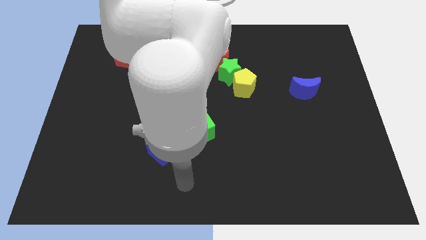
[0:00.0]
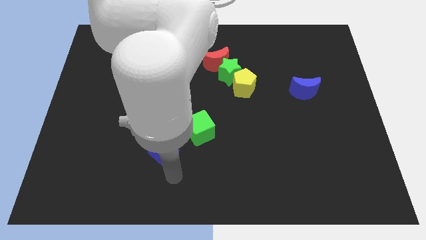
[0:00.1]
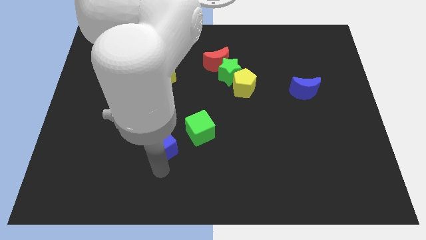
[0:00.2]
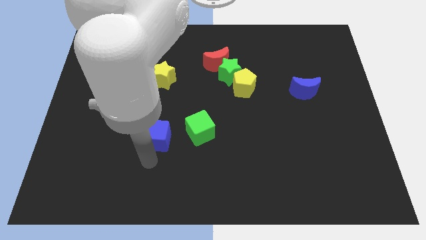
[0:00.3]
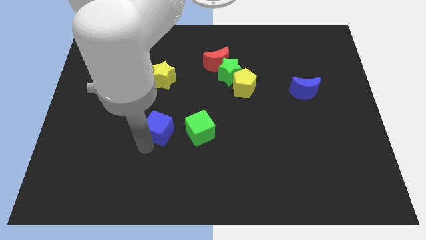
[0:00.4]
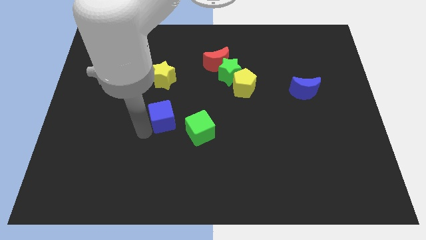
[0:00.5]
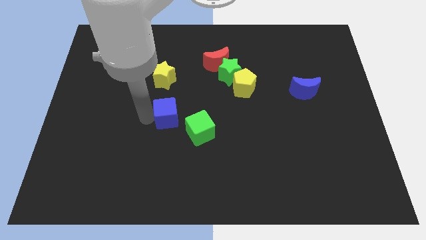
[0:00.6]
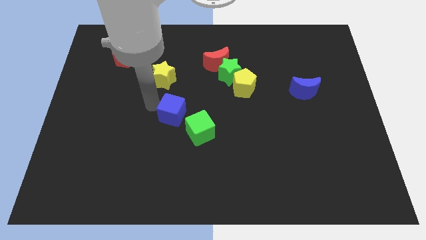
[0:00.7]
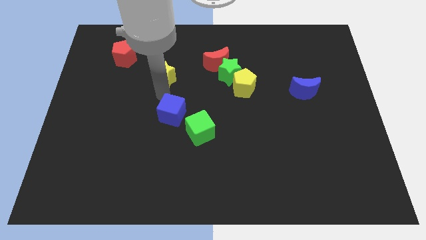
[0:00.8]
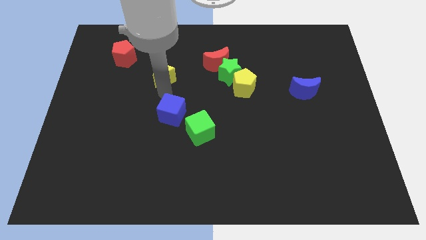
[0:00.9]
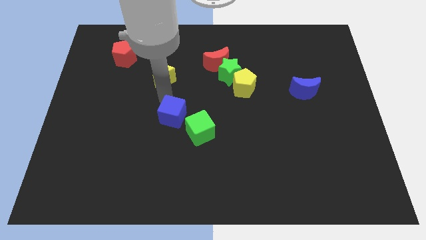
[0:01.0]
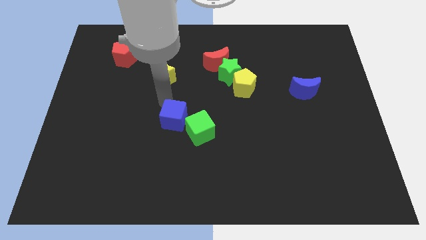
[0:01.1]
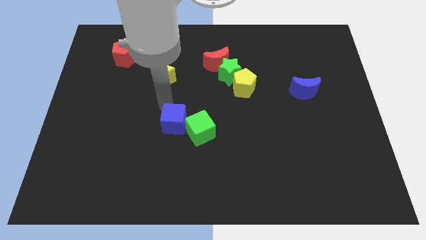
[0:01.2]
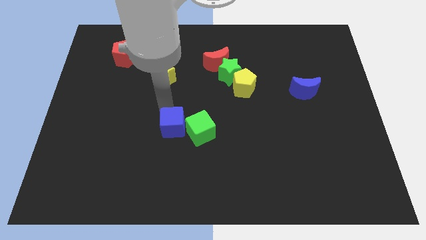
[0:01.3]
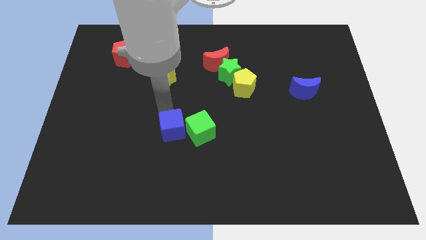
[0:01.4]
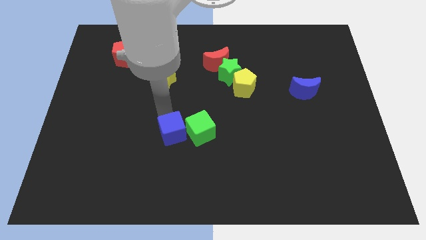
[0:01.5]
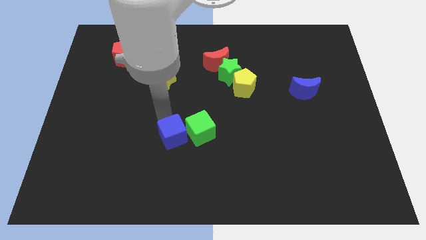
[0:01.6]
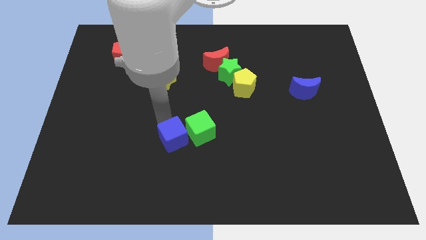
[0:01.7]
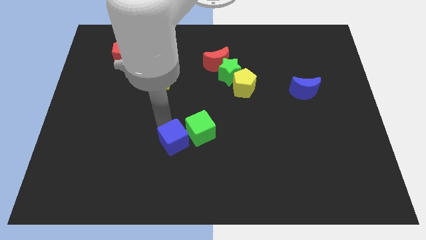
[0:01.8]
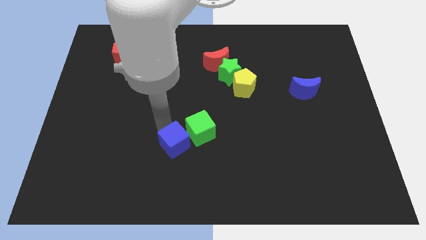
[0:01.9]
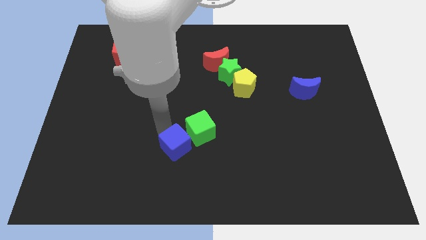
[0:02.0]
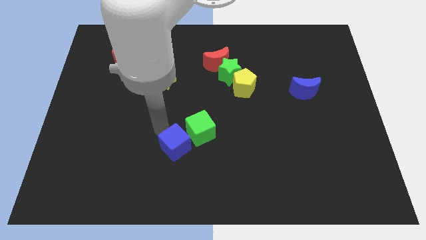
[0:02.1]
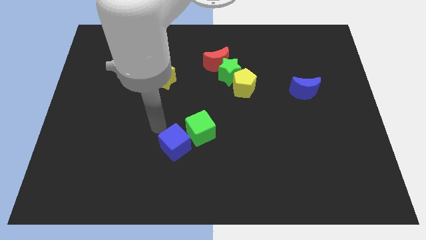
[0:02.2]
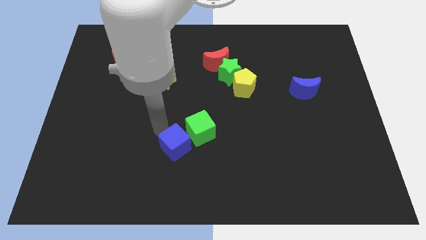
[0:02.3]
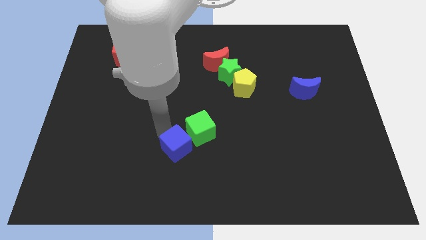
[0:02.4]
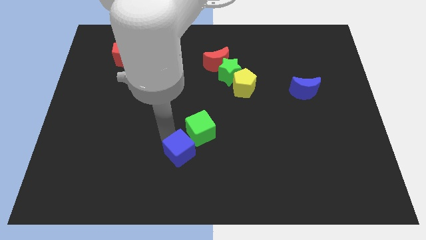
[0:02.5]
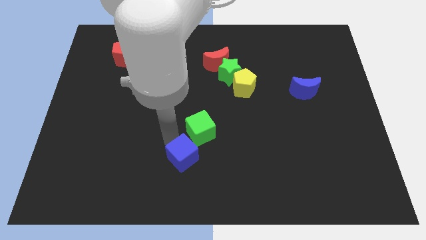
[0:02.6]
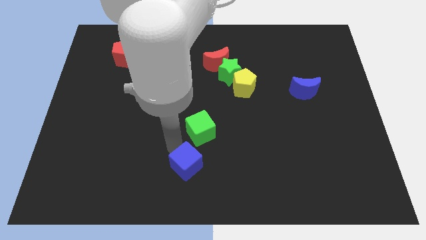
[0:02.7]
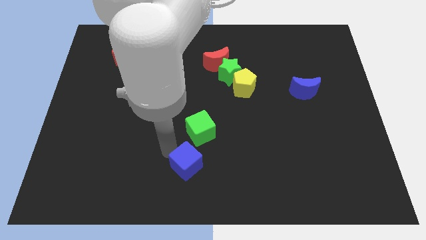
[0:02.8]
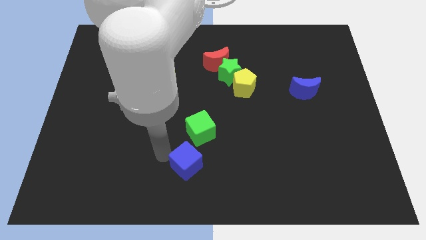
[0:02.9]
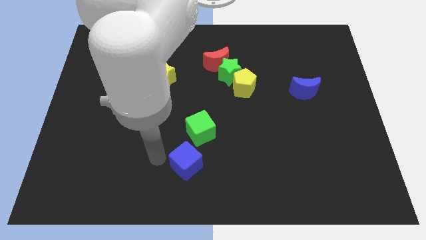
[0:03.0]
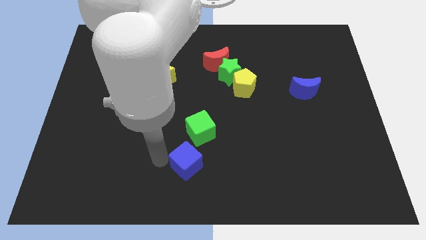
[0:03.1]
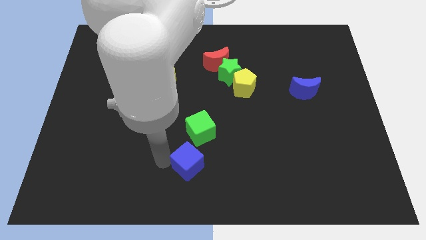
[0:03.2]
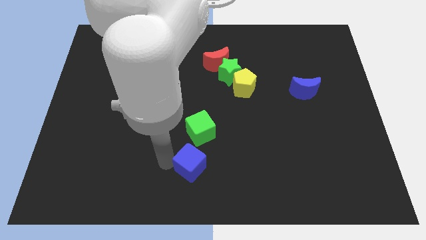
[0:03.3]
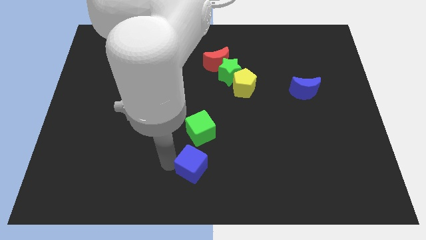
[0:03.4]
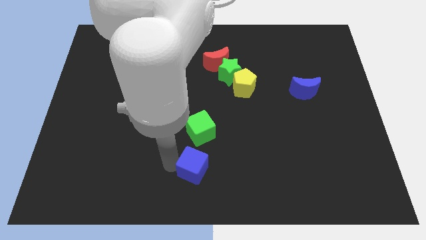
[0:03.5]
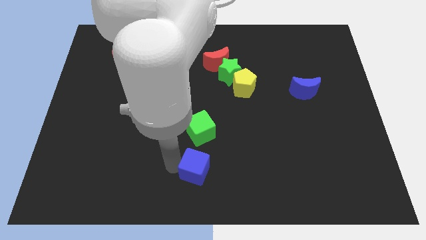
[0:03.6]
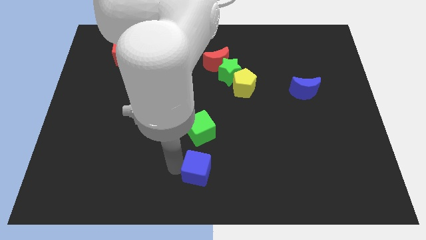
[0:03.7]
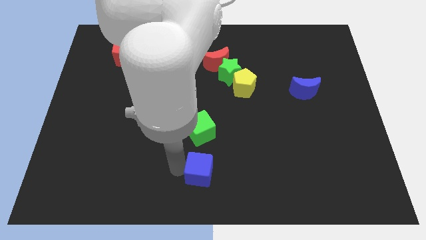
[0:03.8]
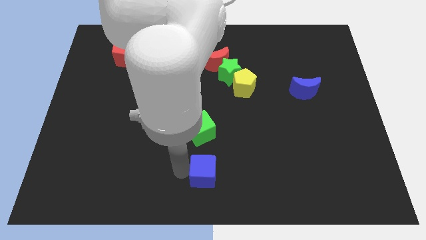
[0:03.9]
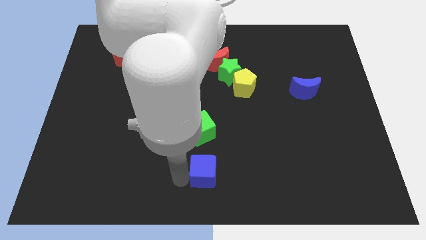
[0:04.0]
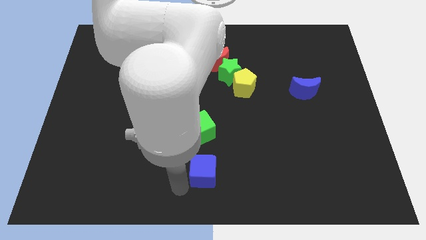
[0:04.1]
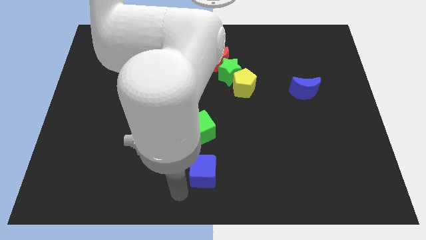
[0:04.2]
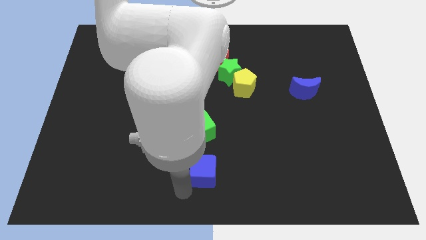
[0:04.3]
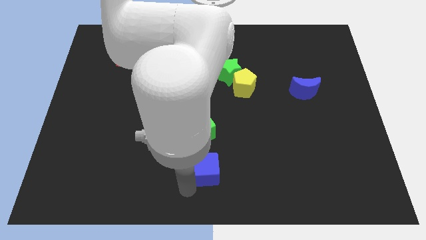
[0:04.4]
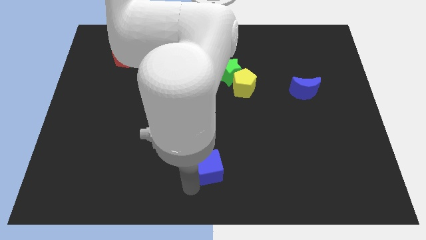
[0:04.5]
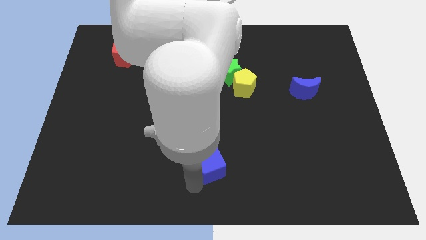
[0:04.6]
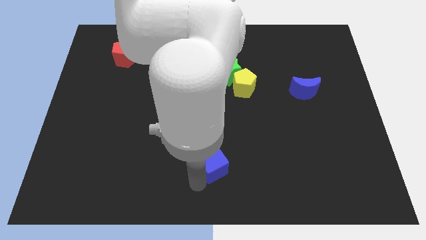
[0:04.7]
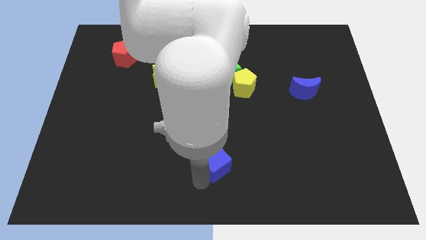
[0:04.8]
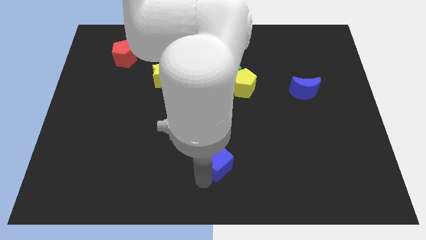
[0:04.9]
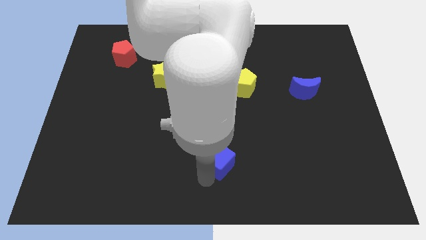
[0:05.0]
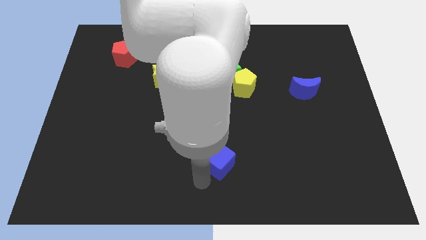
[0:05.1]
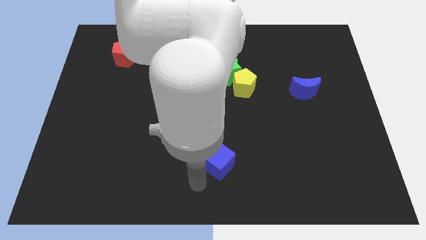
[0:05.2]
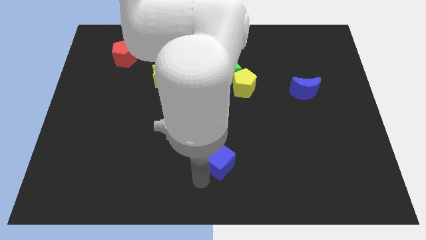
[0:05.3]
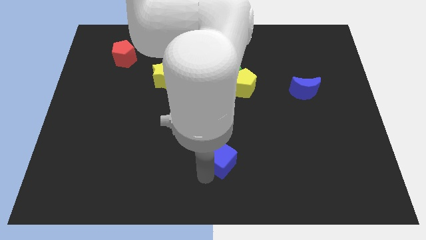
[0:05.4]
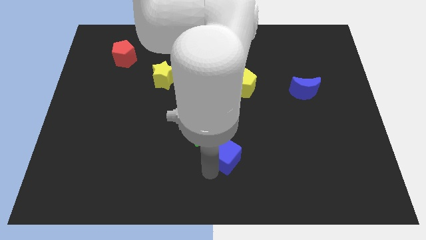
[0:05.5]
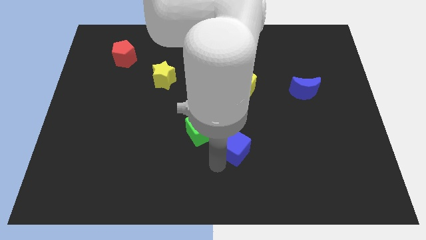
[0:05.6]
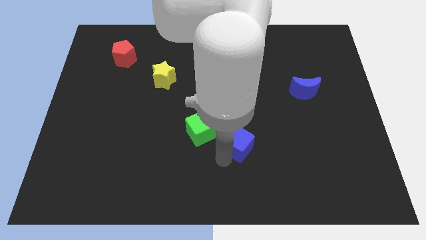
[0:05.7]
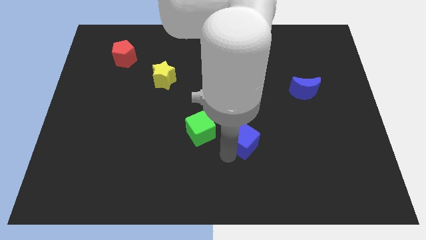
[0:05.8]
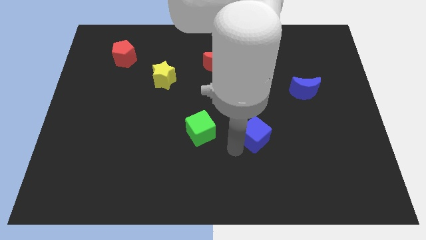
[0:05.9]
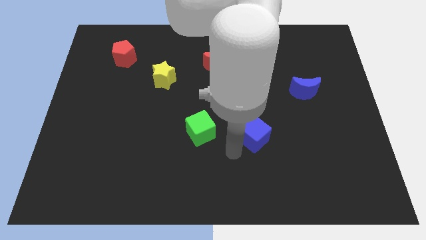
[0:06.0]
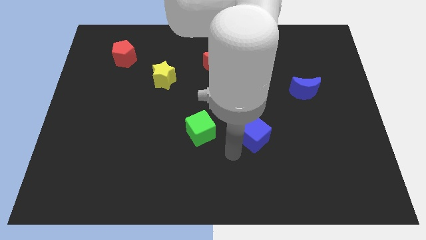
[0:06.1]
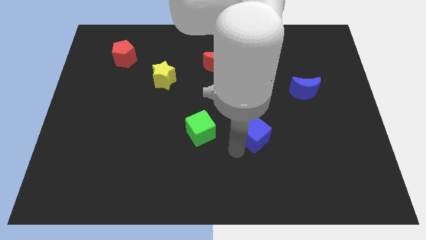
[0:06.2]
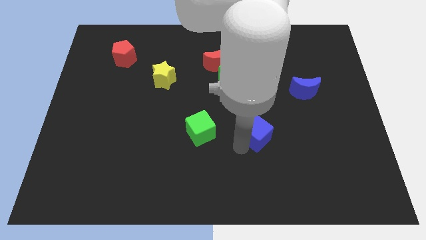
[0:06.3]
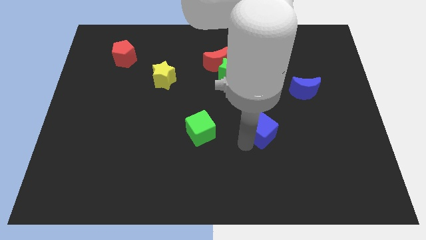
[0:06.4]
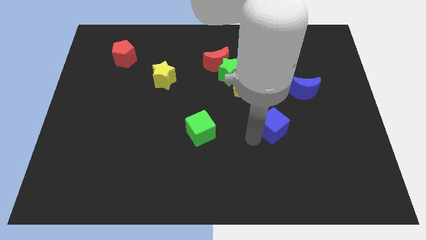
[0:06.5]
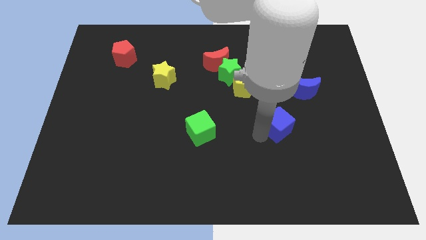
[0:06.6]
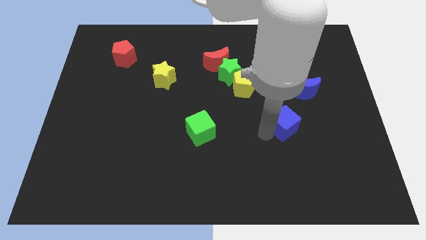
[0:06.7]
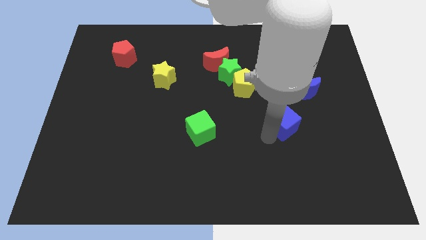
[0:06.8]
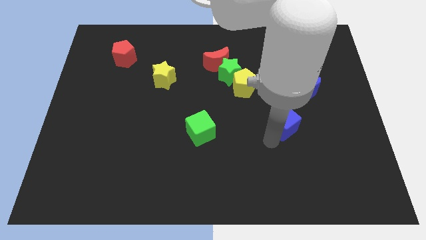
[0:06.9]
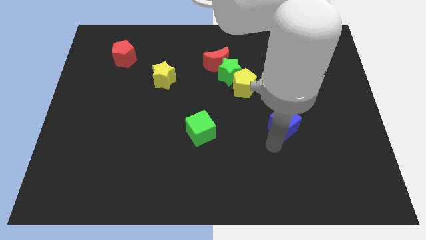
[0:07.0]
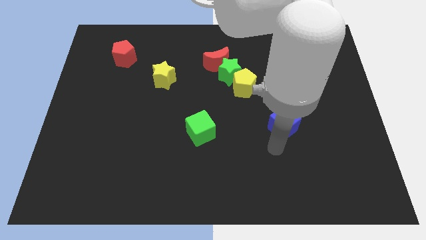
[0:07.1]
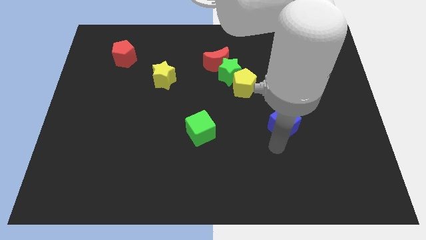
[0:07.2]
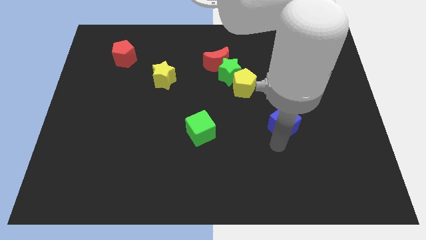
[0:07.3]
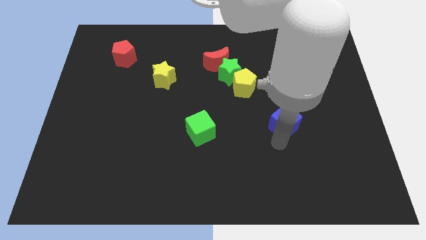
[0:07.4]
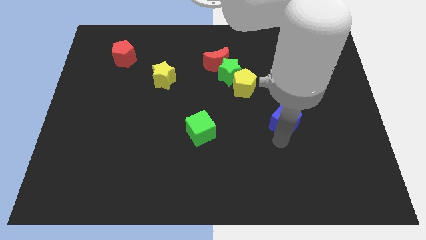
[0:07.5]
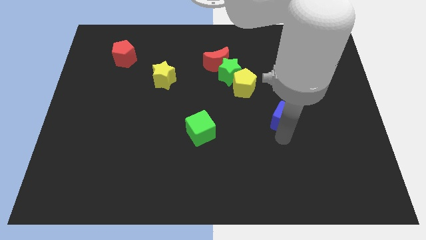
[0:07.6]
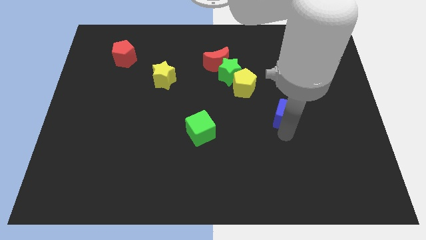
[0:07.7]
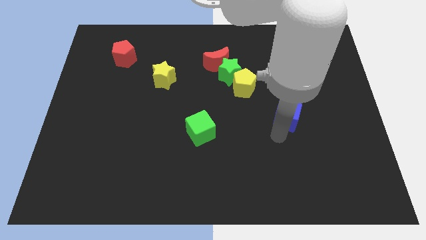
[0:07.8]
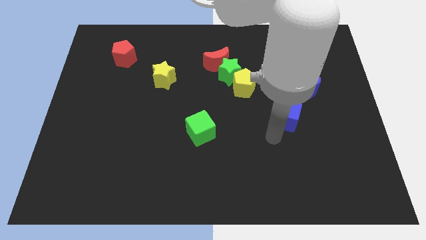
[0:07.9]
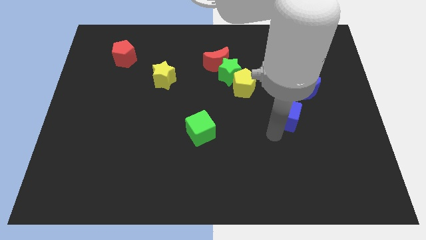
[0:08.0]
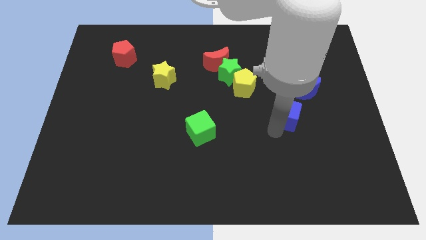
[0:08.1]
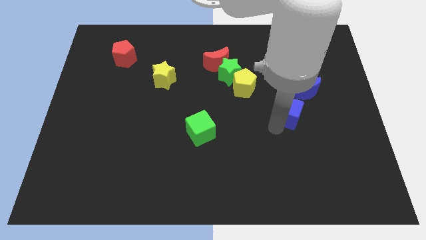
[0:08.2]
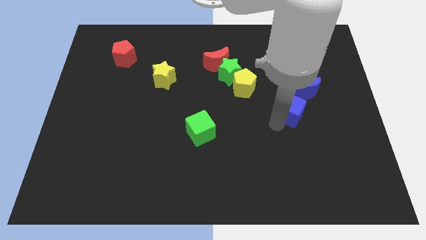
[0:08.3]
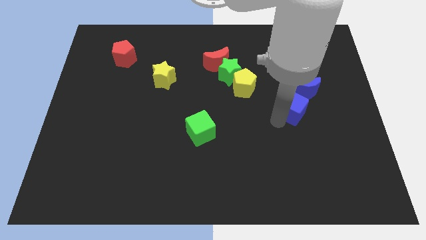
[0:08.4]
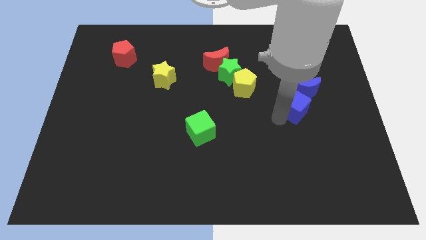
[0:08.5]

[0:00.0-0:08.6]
move the blue cube to the blue moon
